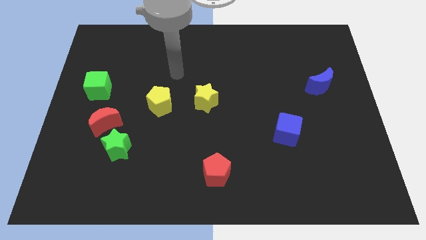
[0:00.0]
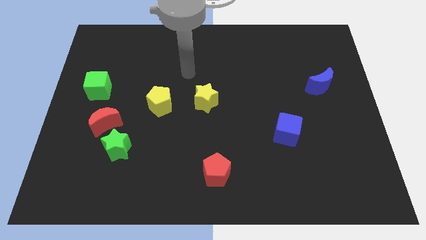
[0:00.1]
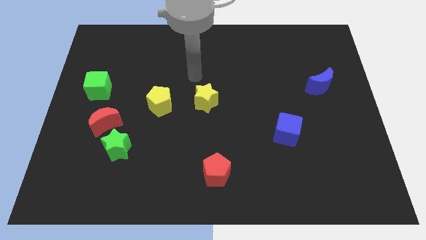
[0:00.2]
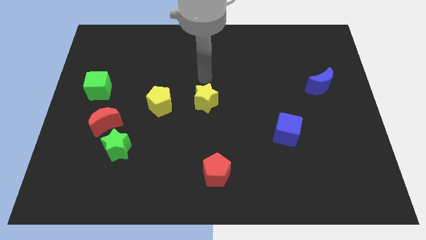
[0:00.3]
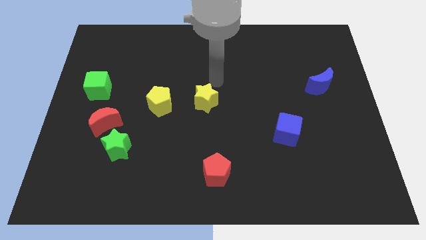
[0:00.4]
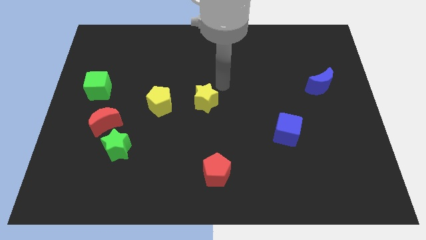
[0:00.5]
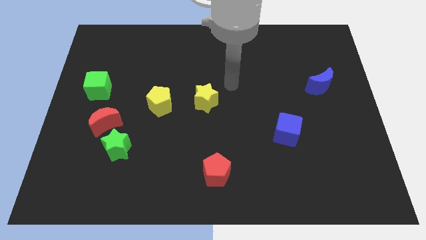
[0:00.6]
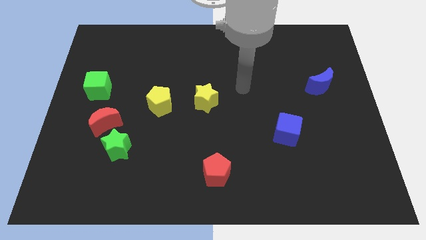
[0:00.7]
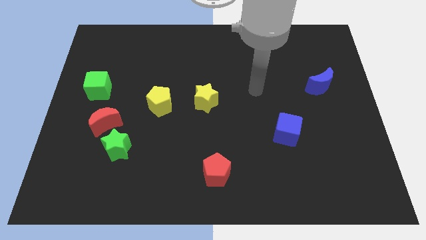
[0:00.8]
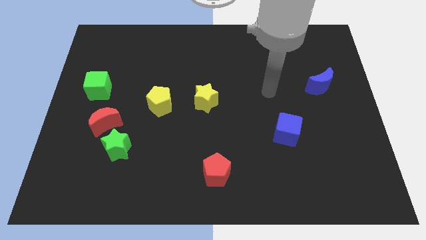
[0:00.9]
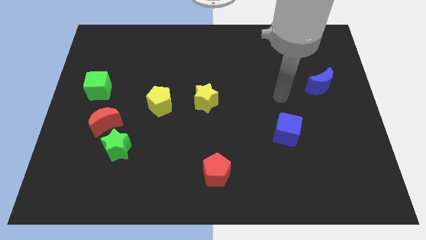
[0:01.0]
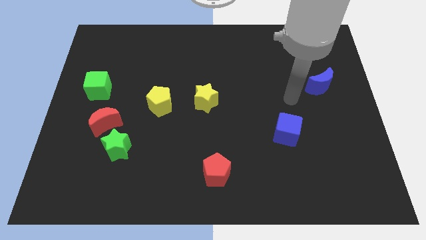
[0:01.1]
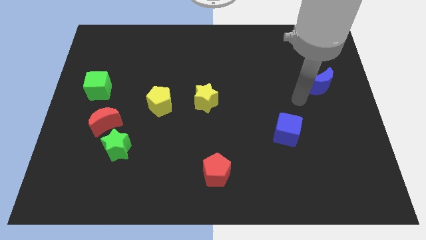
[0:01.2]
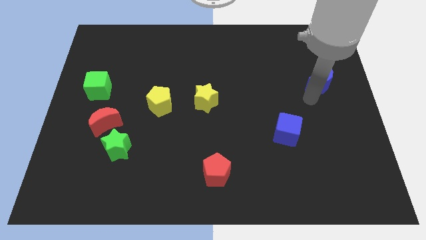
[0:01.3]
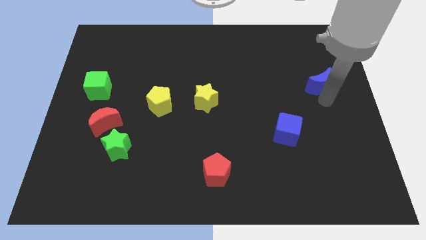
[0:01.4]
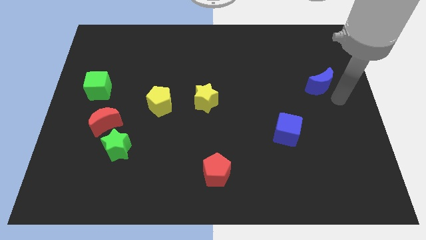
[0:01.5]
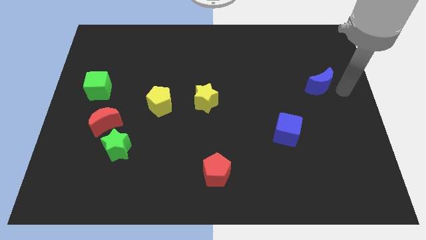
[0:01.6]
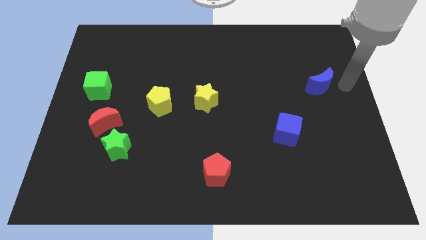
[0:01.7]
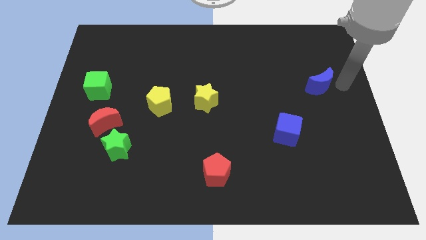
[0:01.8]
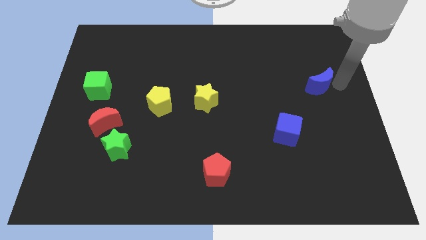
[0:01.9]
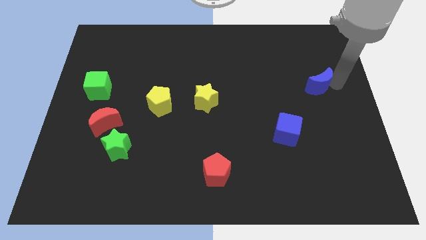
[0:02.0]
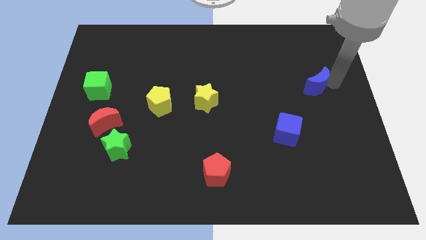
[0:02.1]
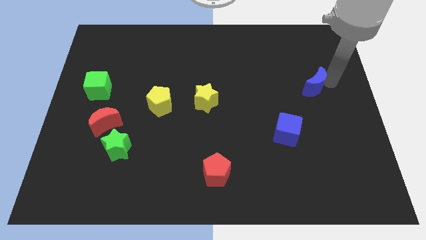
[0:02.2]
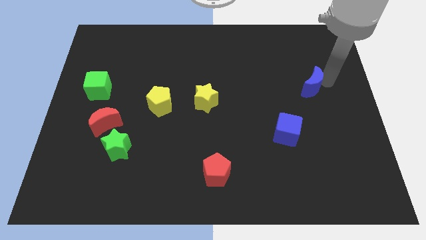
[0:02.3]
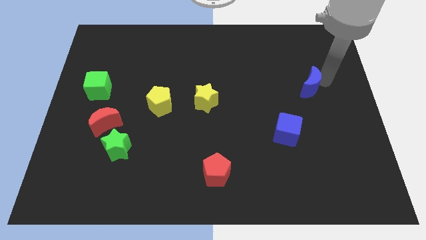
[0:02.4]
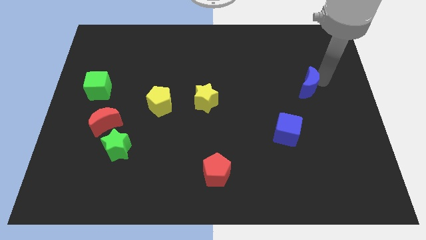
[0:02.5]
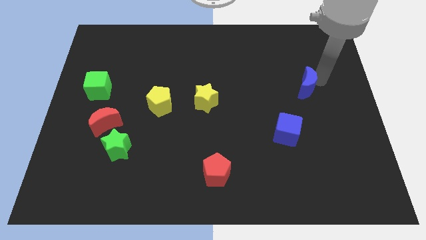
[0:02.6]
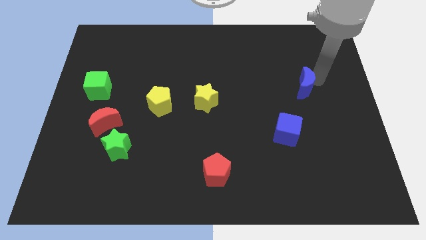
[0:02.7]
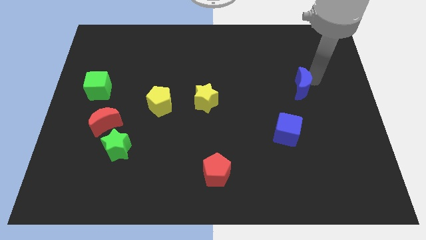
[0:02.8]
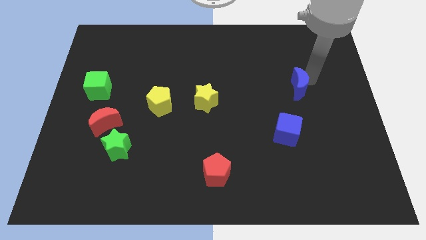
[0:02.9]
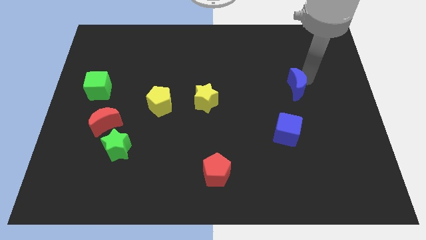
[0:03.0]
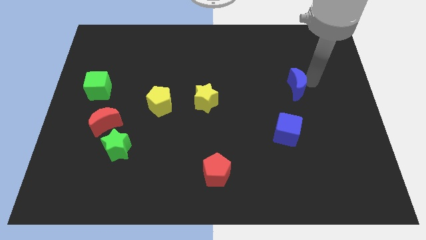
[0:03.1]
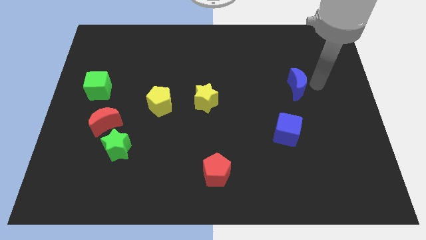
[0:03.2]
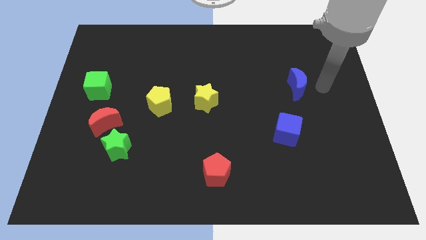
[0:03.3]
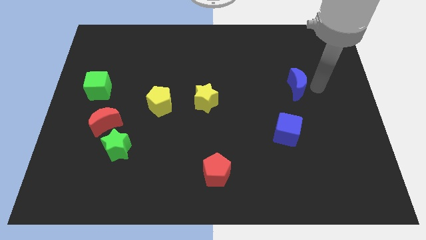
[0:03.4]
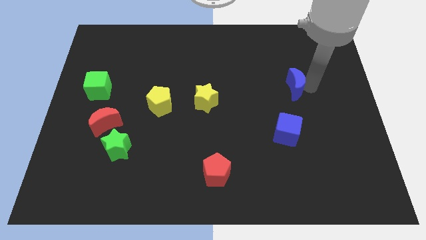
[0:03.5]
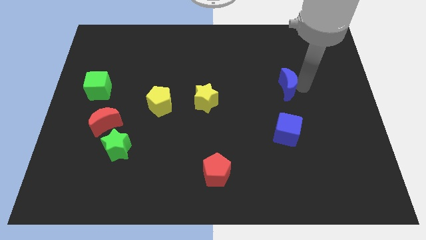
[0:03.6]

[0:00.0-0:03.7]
move the blue moon slightly to the left

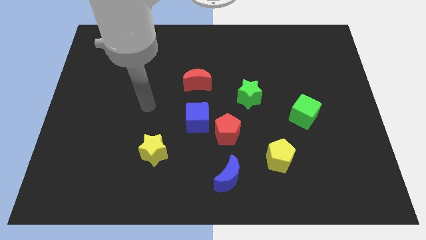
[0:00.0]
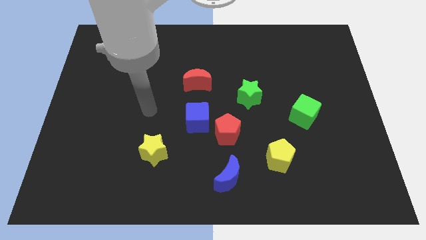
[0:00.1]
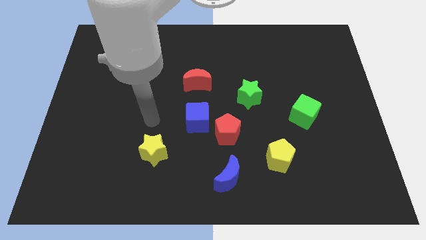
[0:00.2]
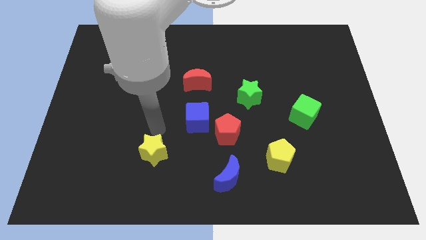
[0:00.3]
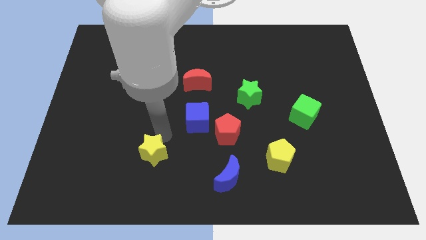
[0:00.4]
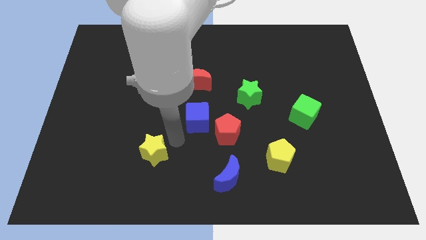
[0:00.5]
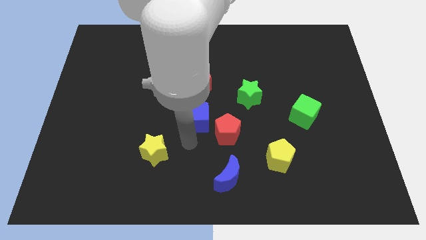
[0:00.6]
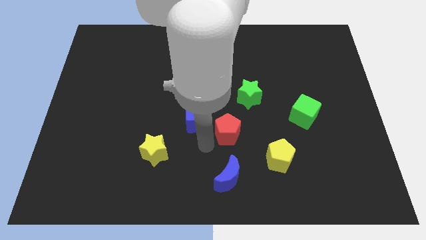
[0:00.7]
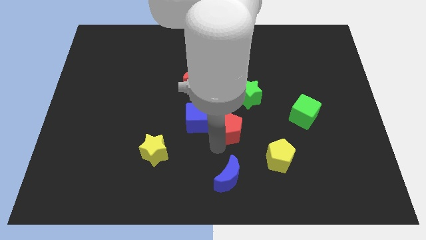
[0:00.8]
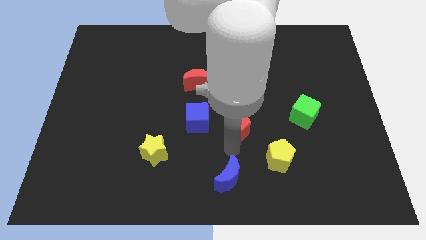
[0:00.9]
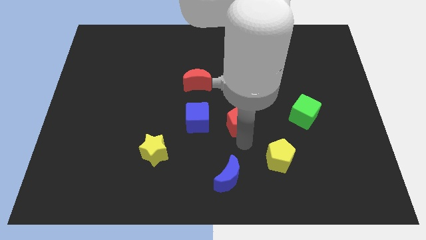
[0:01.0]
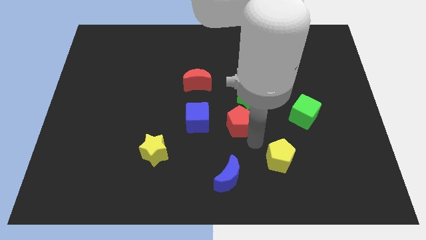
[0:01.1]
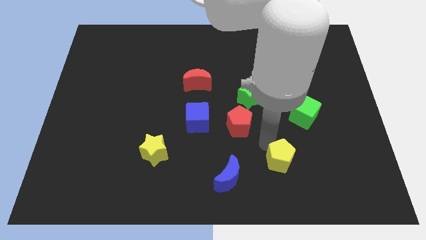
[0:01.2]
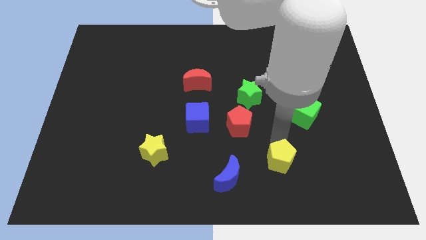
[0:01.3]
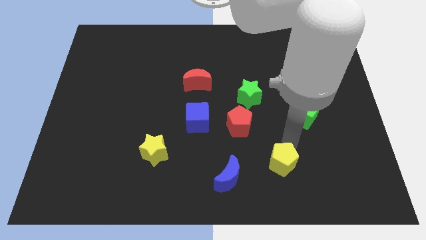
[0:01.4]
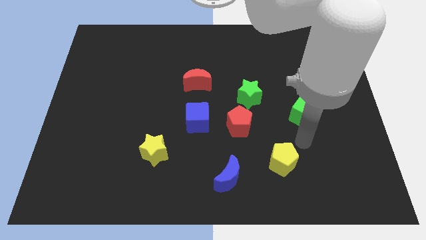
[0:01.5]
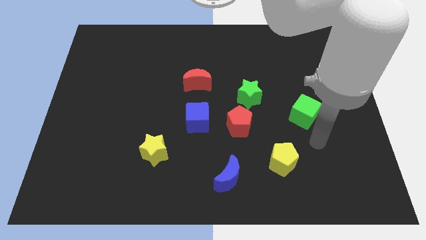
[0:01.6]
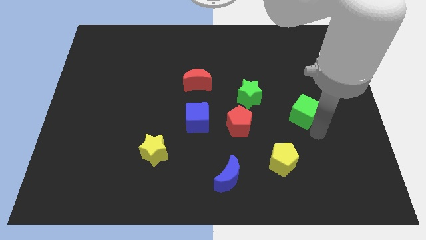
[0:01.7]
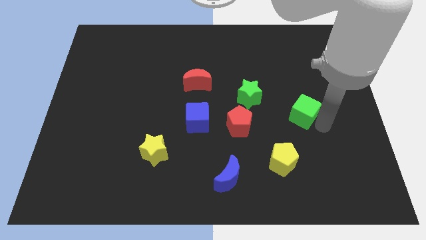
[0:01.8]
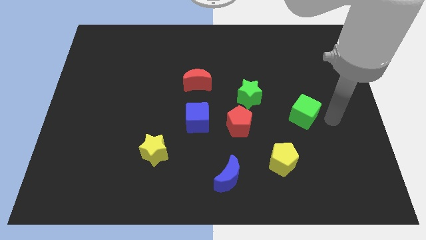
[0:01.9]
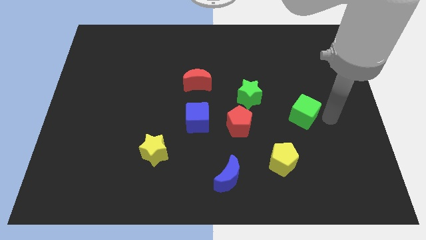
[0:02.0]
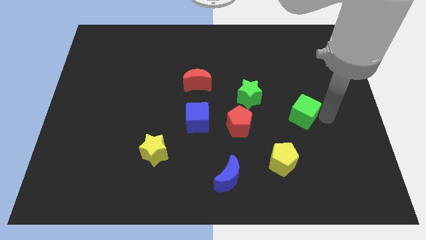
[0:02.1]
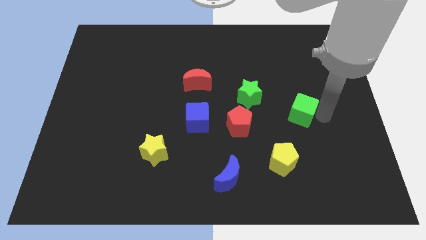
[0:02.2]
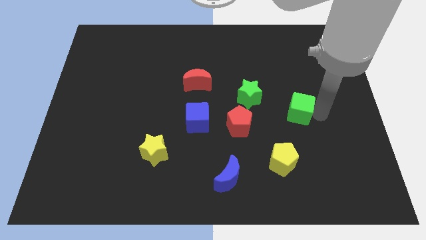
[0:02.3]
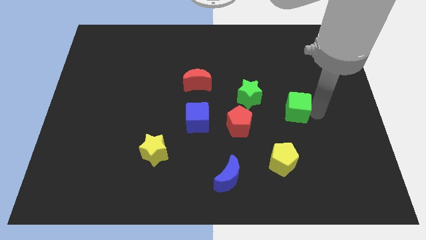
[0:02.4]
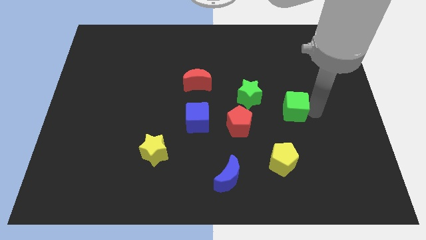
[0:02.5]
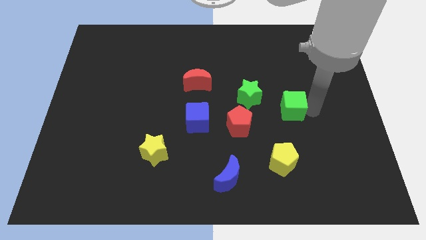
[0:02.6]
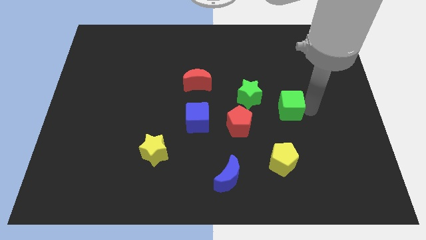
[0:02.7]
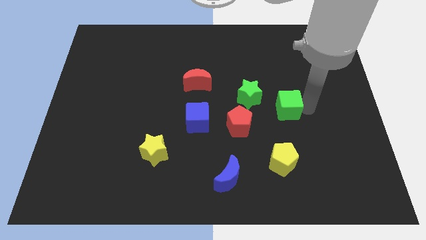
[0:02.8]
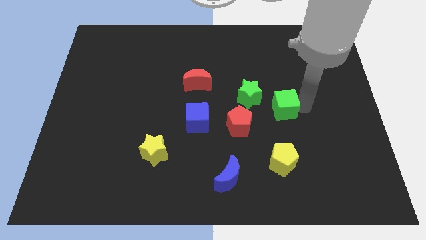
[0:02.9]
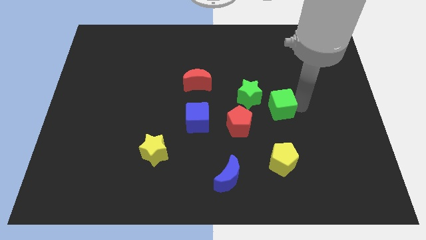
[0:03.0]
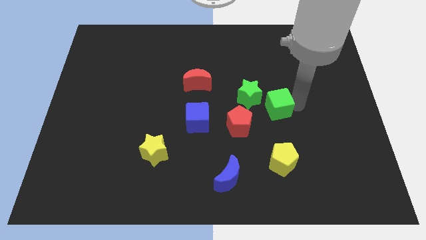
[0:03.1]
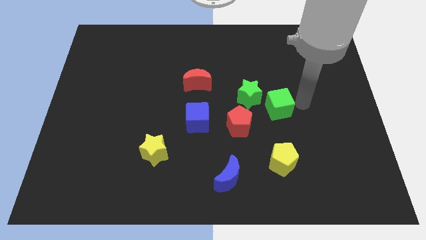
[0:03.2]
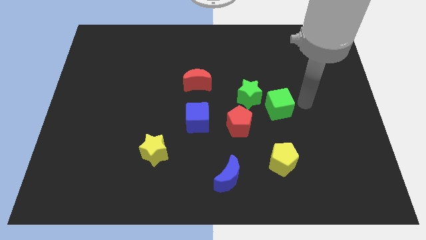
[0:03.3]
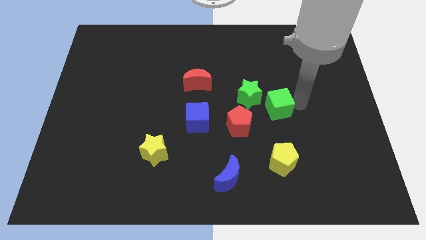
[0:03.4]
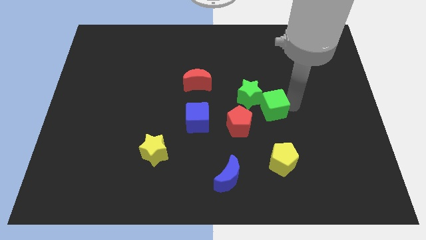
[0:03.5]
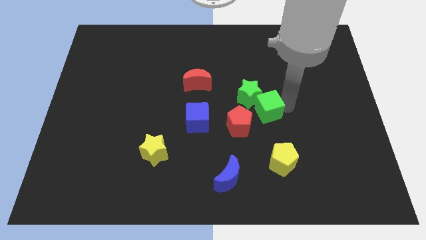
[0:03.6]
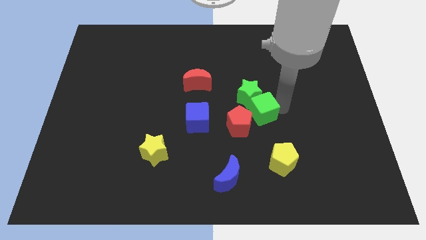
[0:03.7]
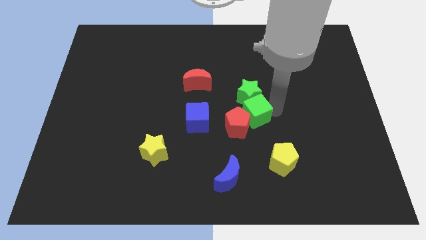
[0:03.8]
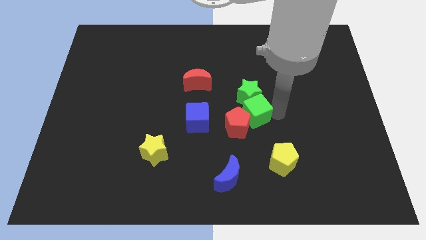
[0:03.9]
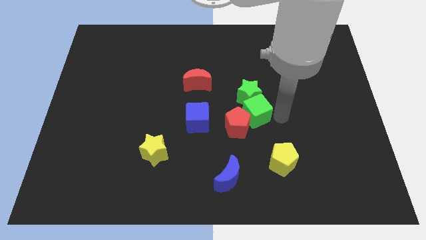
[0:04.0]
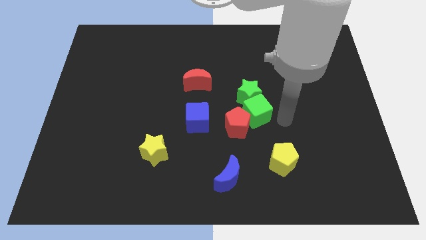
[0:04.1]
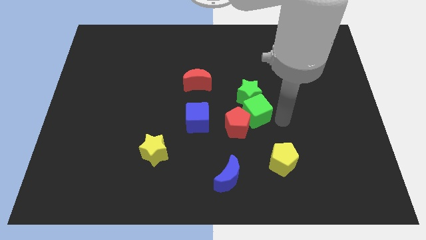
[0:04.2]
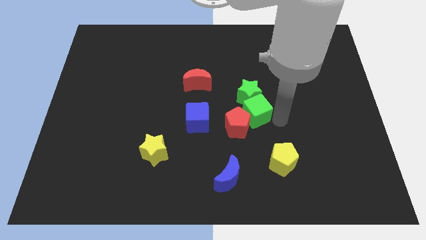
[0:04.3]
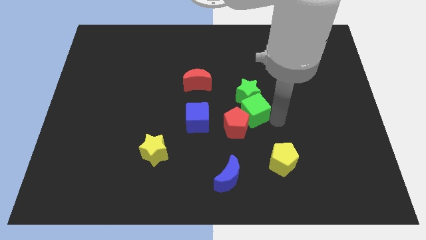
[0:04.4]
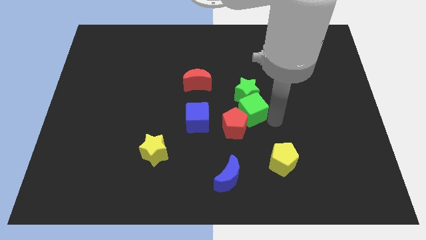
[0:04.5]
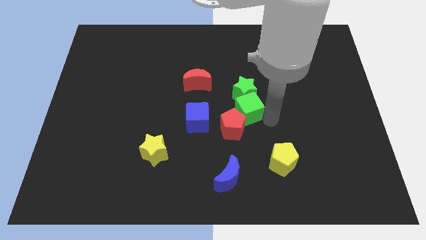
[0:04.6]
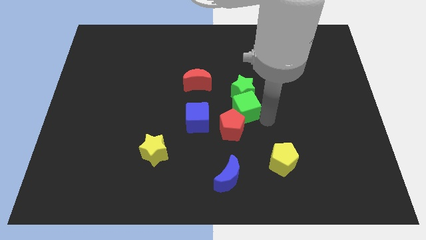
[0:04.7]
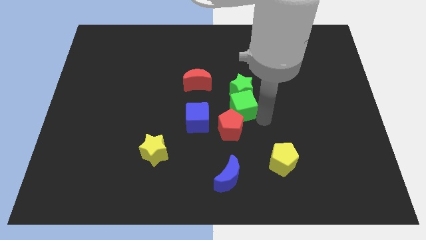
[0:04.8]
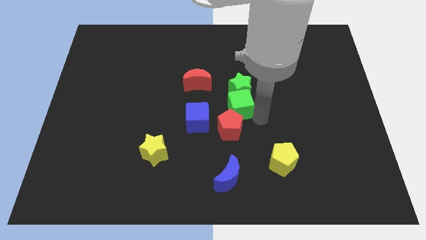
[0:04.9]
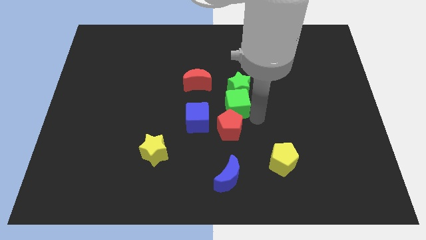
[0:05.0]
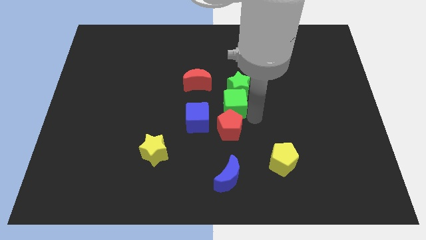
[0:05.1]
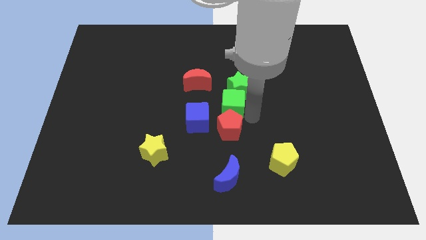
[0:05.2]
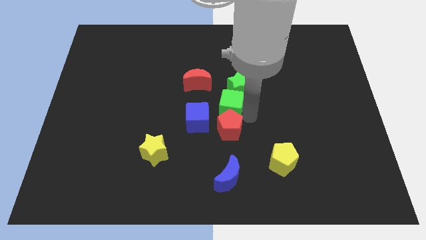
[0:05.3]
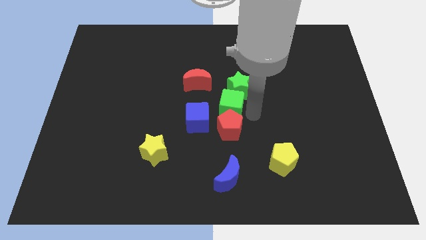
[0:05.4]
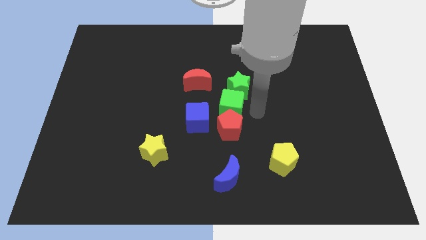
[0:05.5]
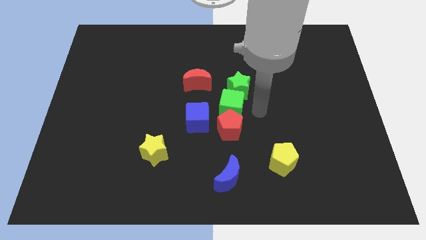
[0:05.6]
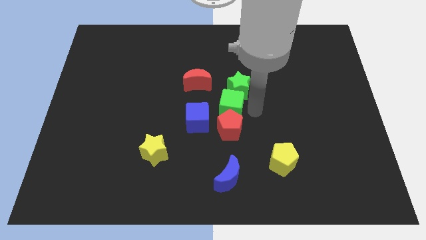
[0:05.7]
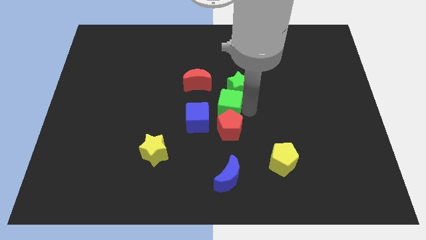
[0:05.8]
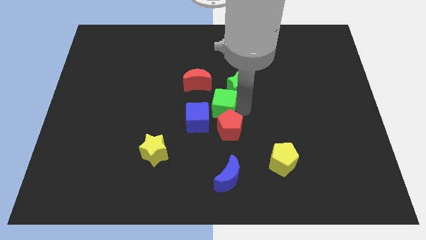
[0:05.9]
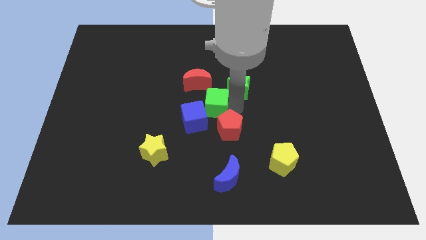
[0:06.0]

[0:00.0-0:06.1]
push the green cube left
